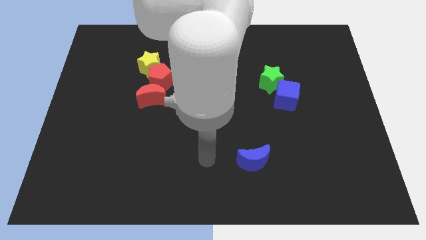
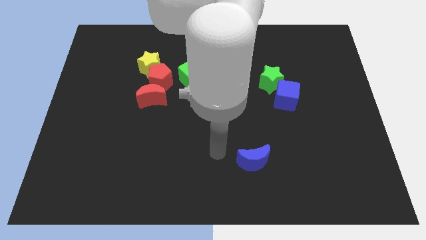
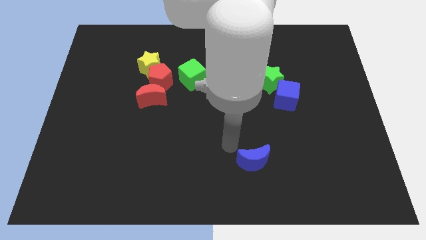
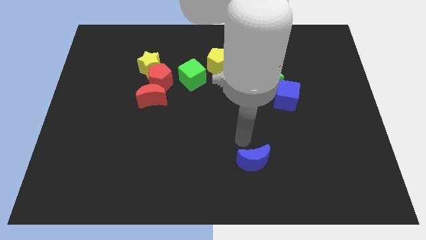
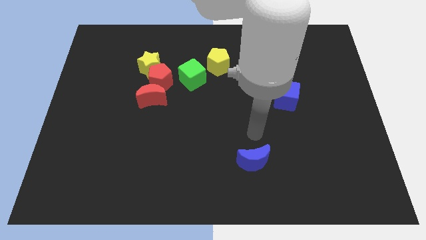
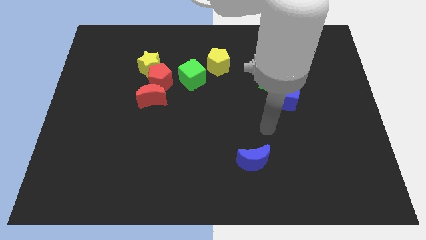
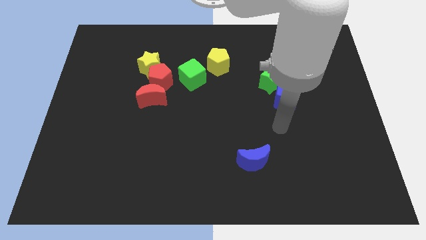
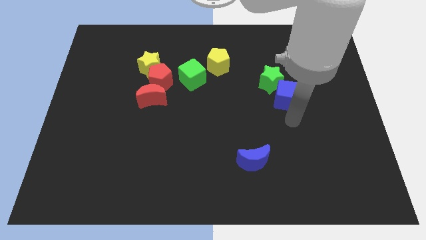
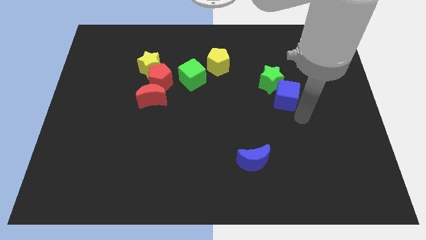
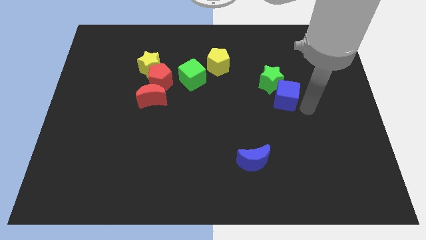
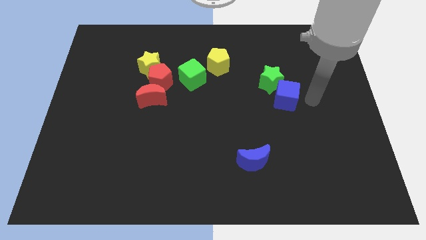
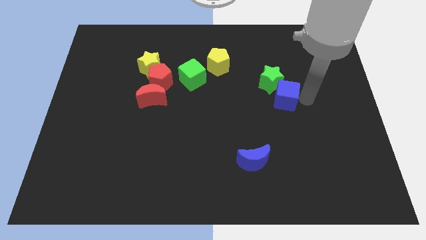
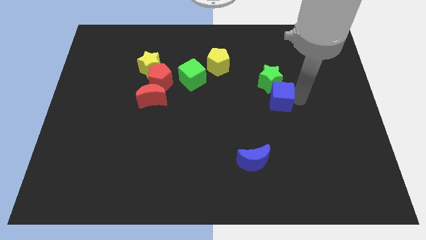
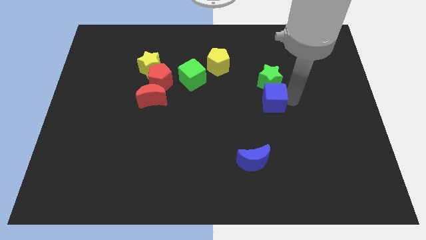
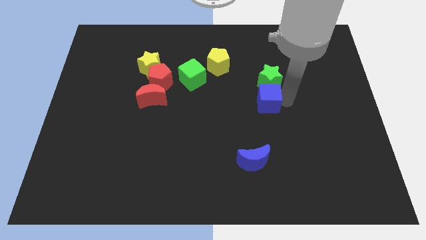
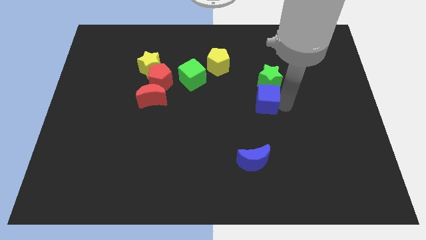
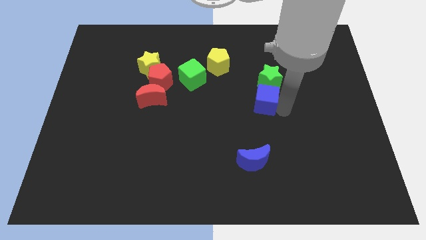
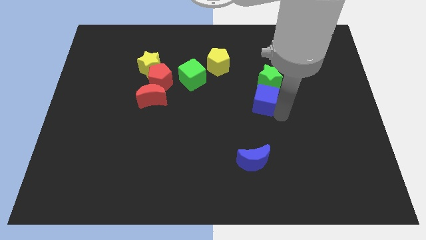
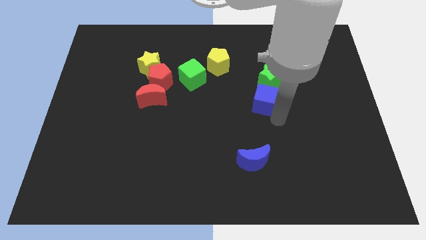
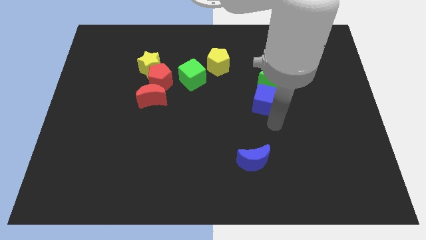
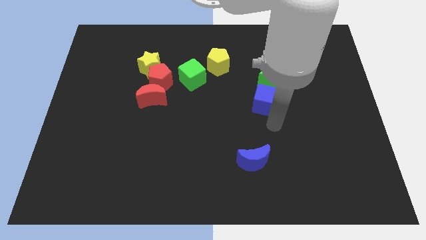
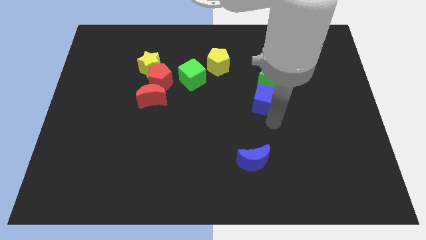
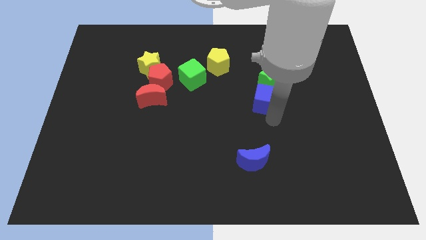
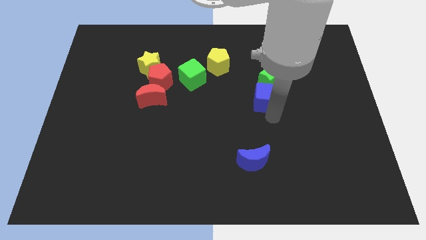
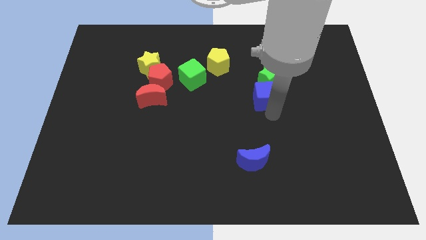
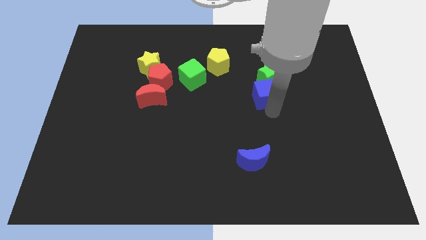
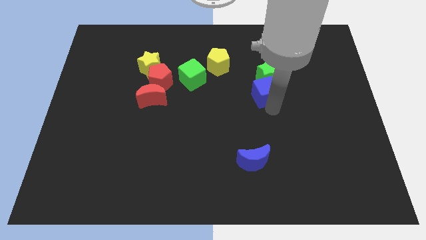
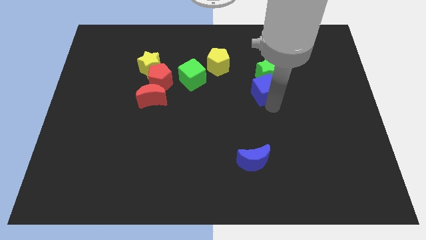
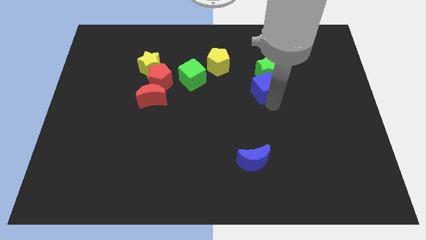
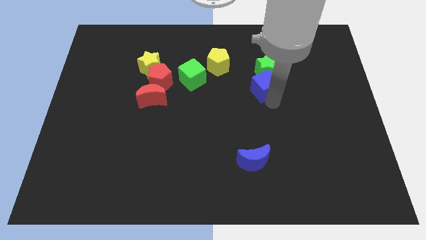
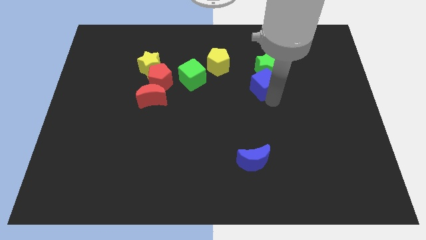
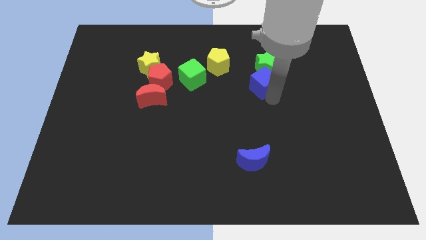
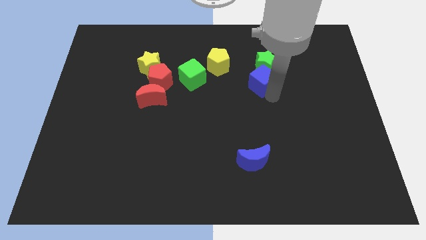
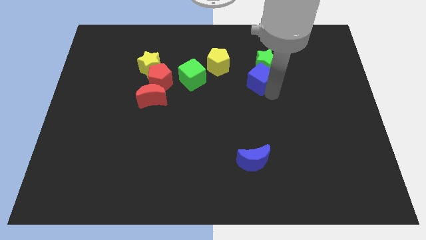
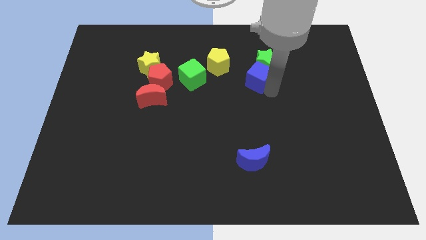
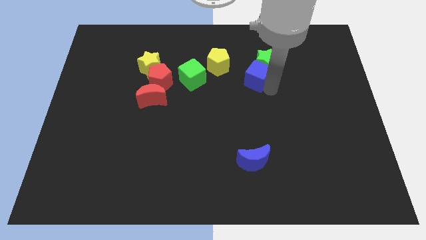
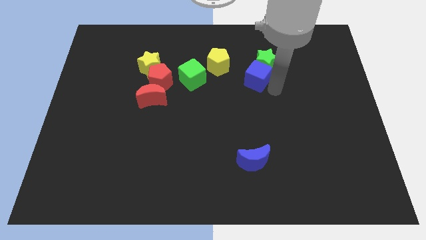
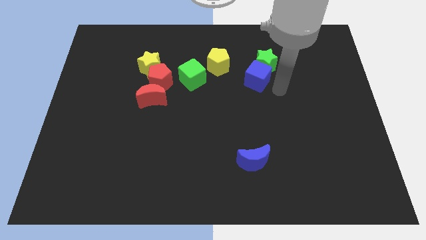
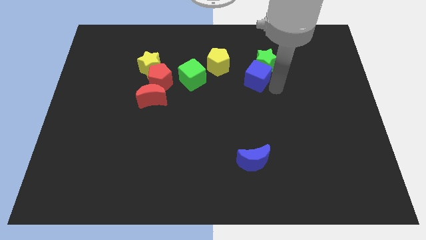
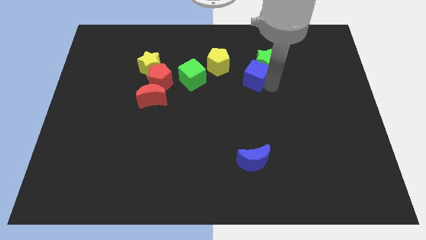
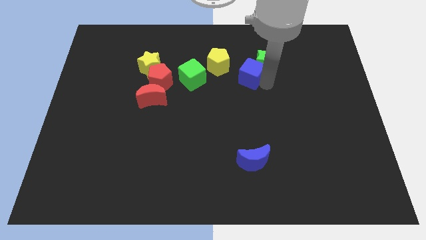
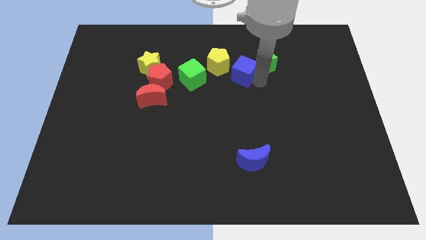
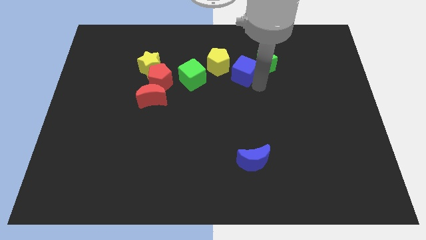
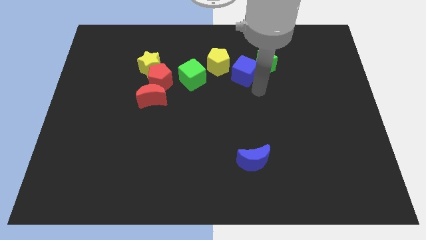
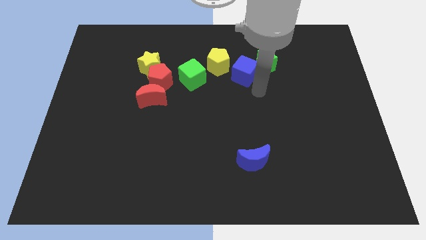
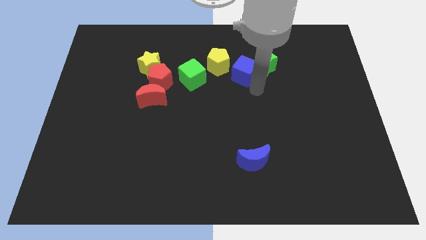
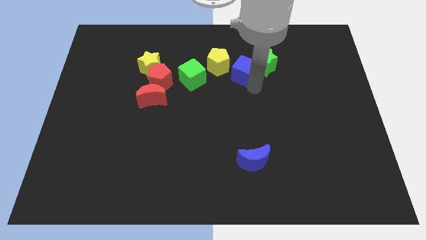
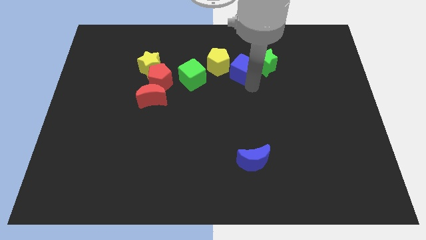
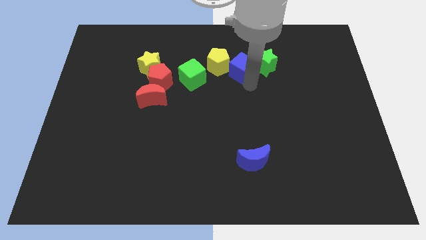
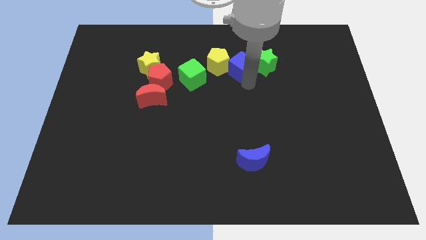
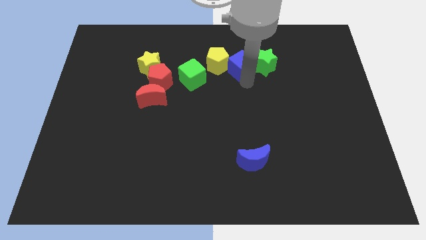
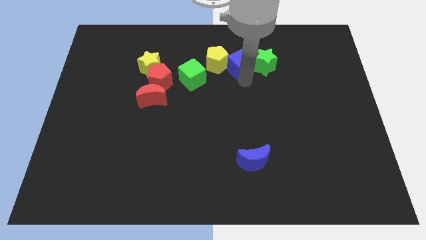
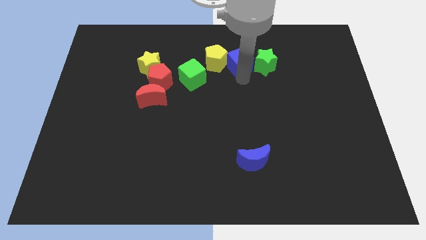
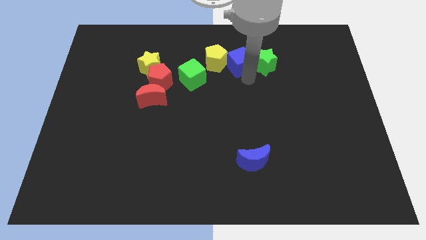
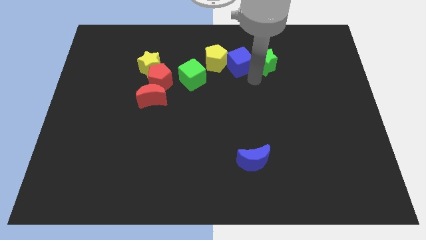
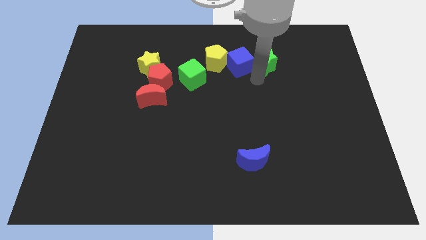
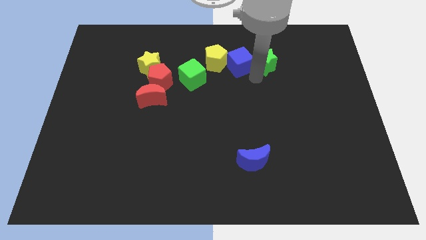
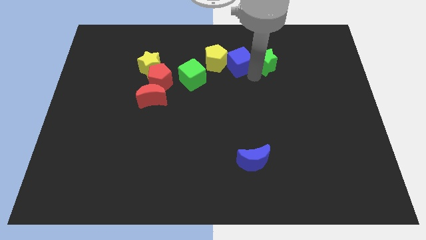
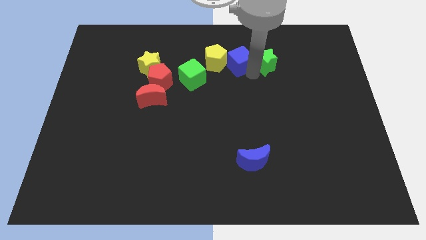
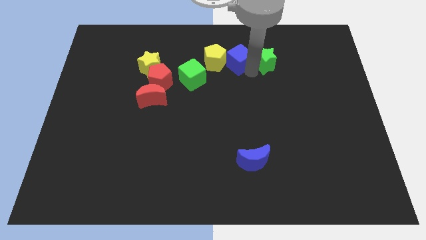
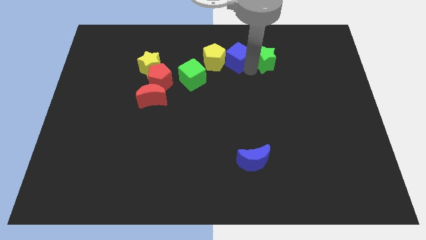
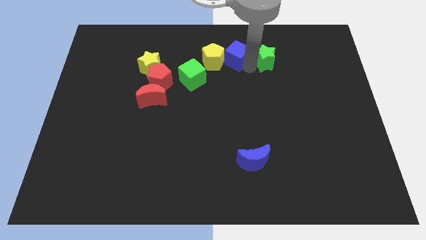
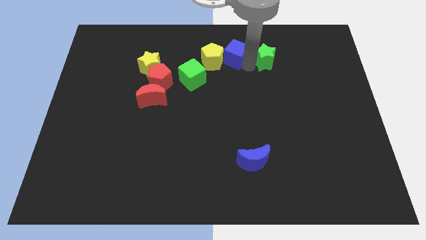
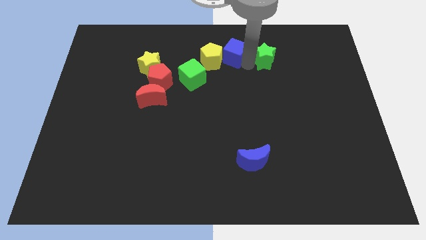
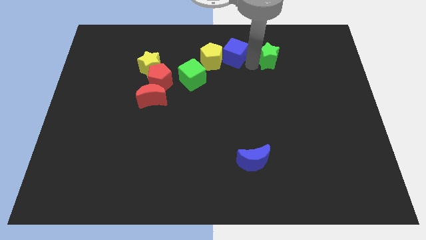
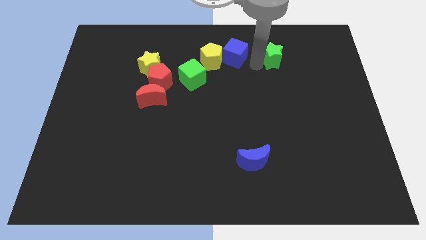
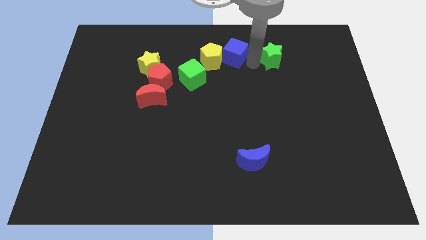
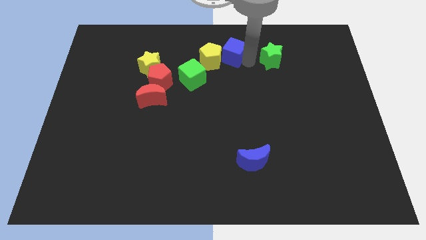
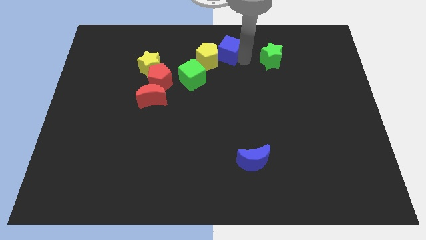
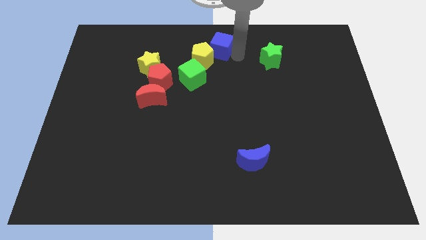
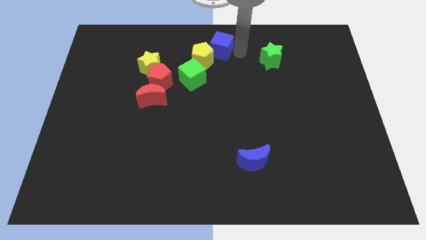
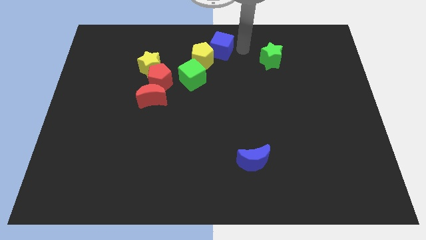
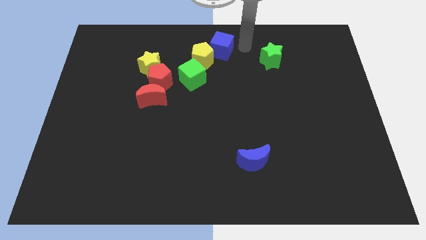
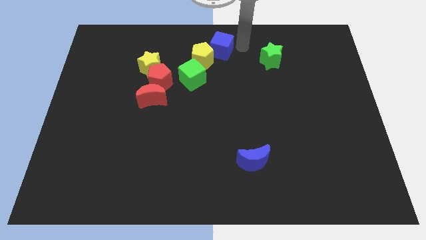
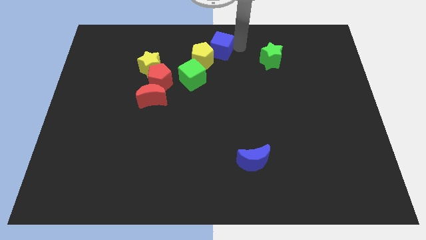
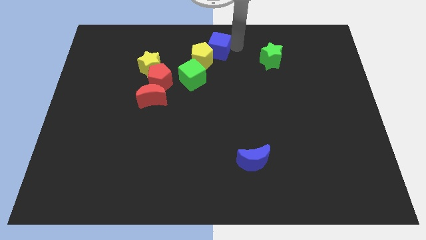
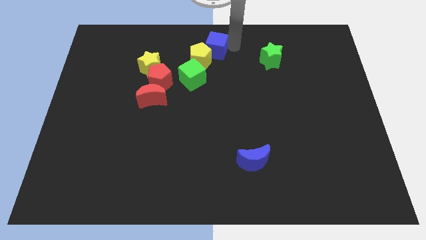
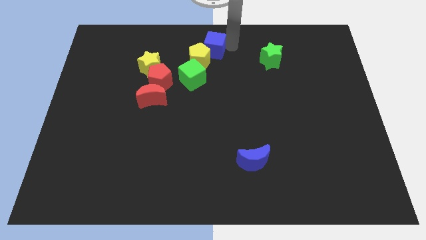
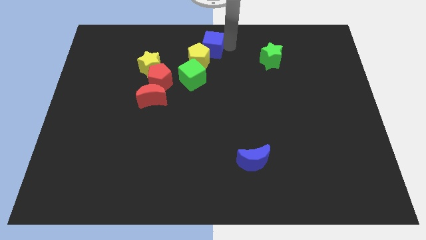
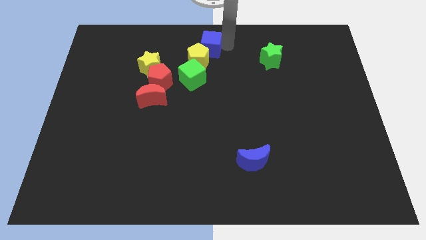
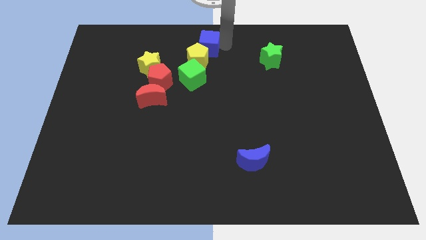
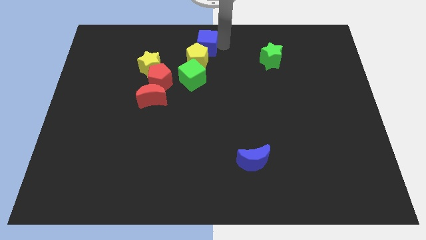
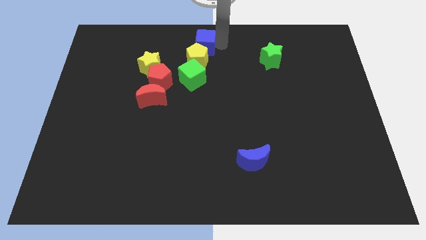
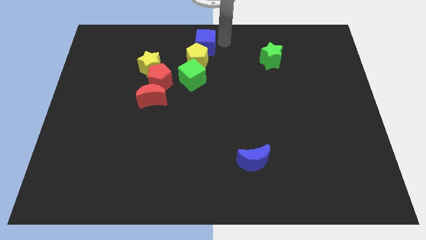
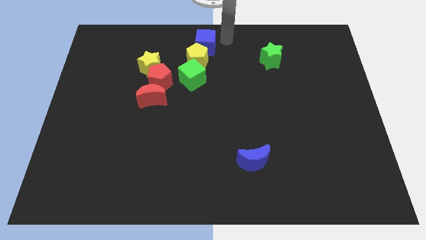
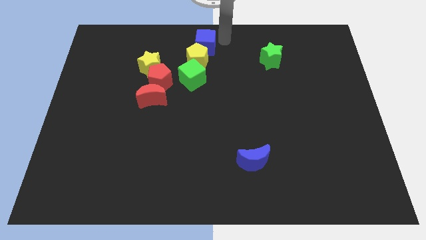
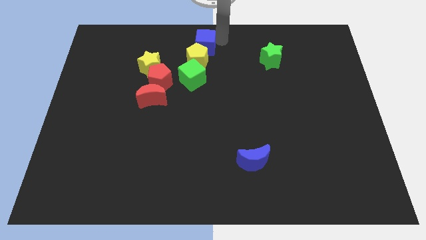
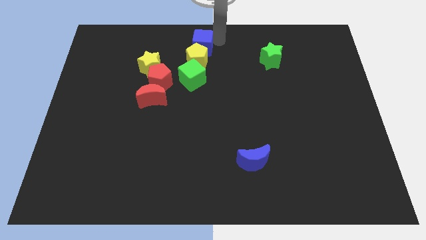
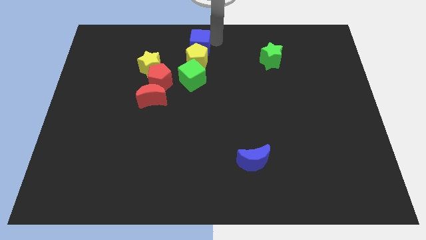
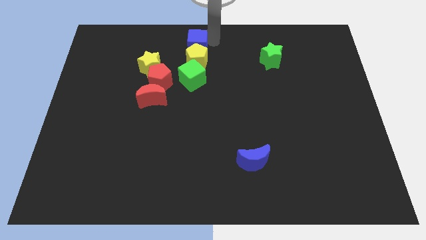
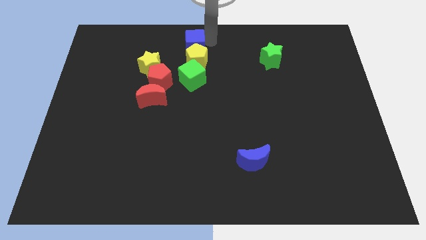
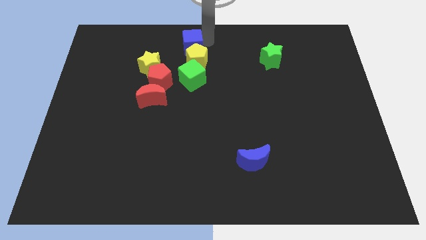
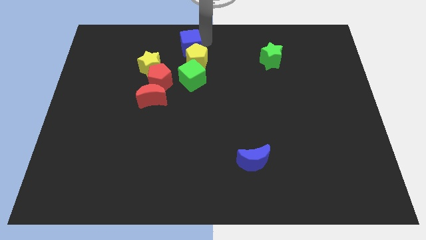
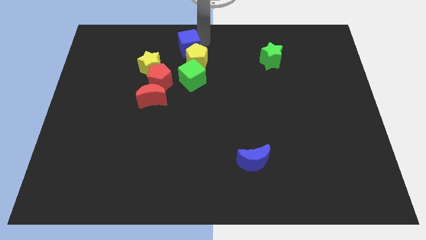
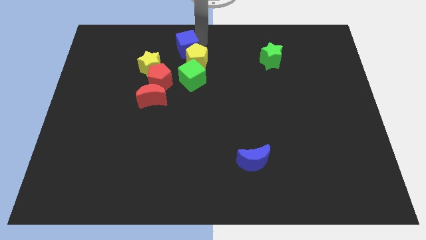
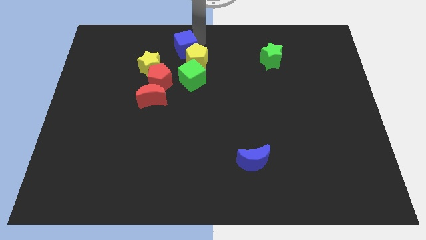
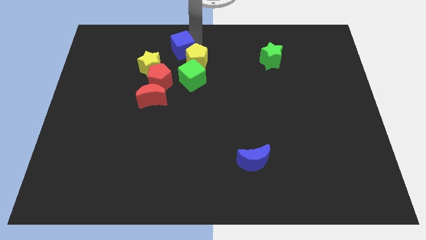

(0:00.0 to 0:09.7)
move the blue cube to the left of the yellow pentagon
